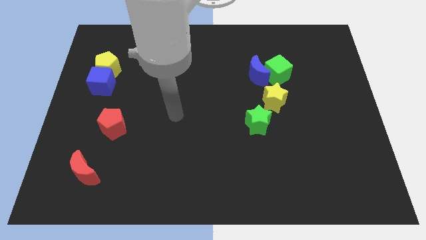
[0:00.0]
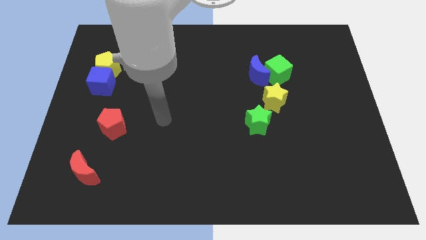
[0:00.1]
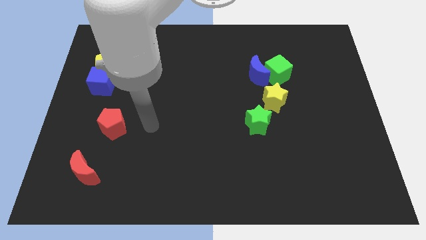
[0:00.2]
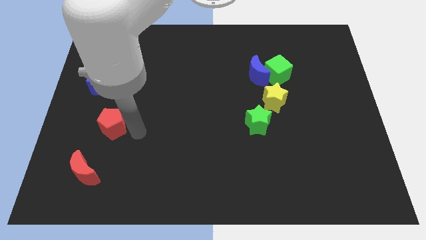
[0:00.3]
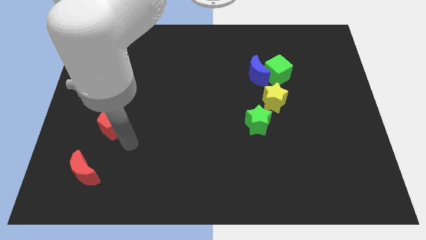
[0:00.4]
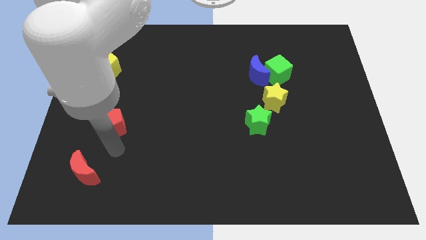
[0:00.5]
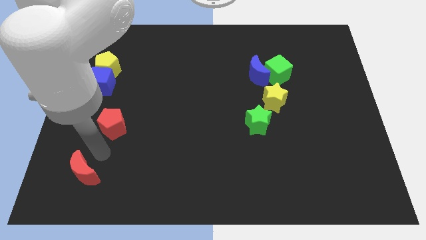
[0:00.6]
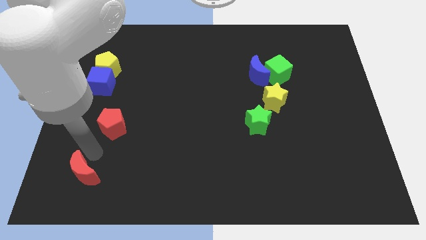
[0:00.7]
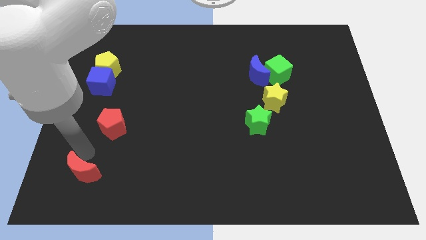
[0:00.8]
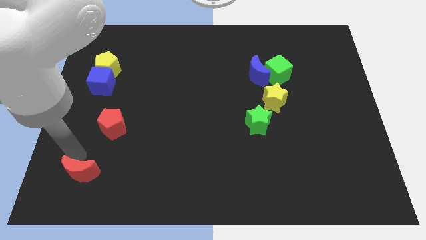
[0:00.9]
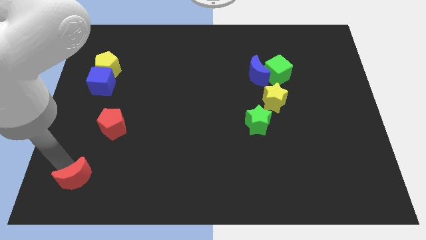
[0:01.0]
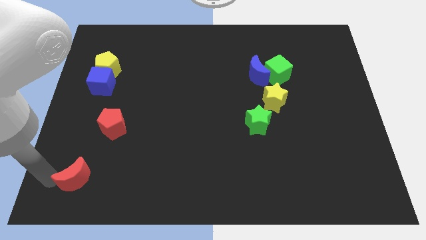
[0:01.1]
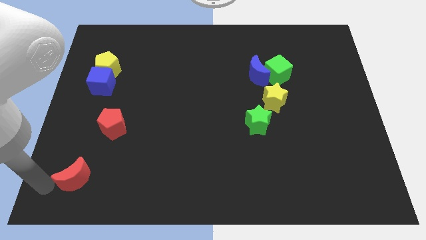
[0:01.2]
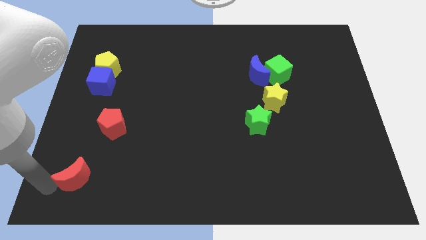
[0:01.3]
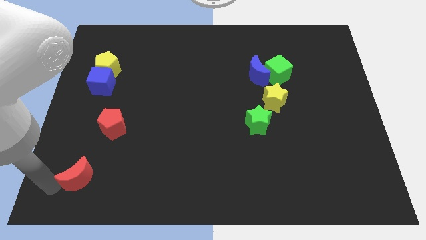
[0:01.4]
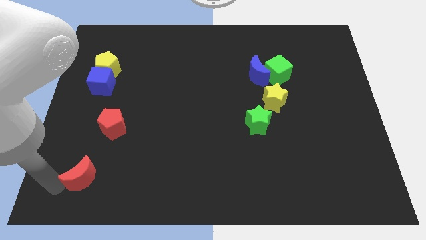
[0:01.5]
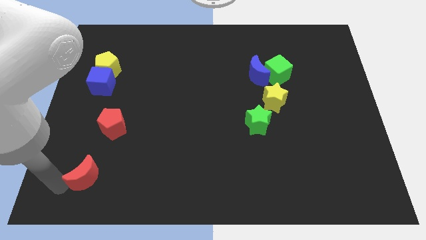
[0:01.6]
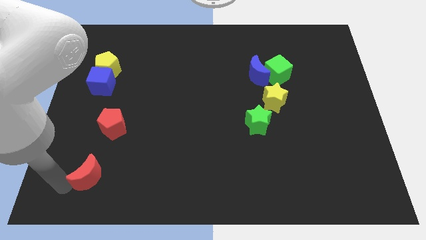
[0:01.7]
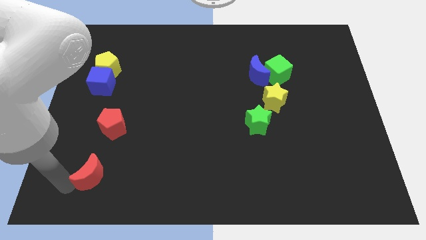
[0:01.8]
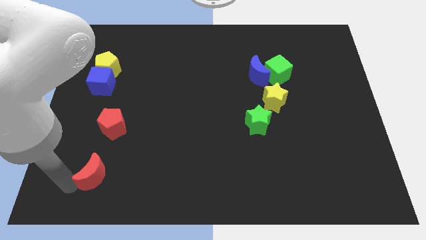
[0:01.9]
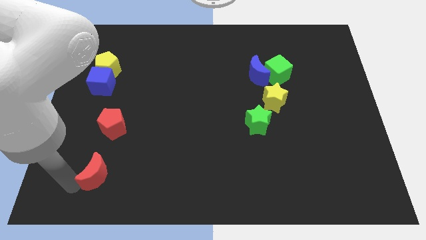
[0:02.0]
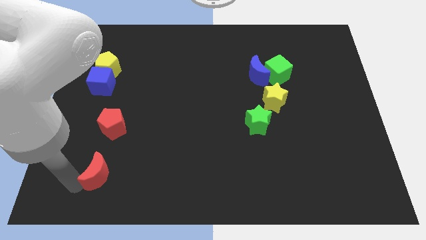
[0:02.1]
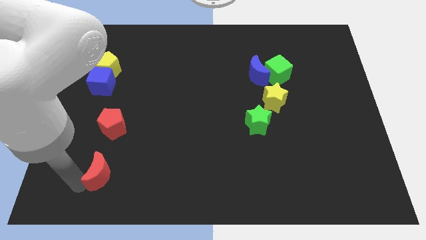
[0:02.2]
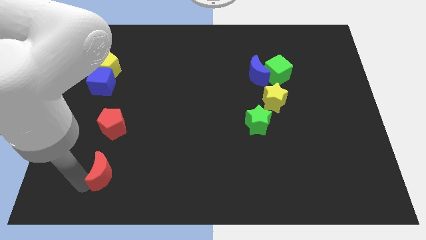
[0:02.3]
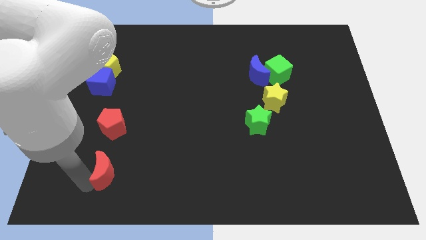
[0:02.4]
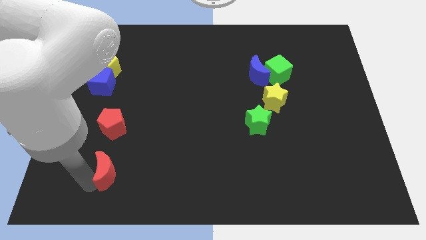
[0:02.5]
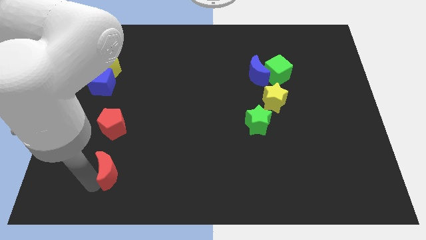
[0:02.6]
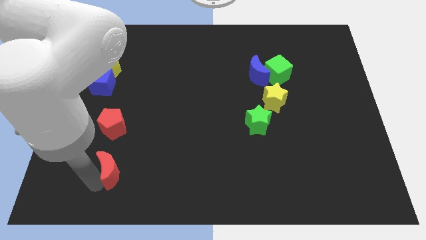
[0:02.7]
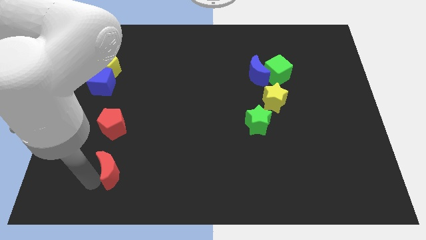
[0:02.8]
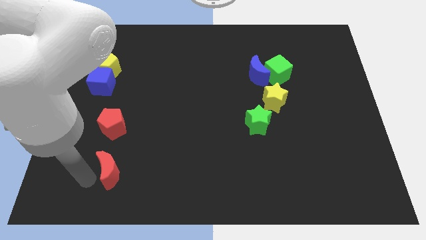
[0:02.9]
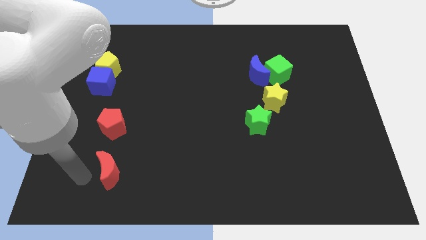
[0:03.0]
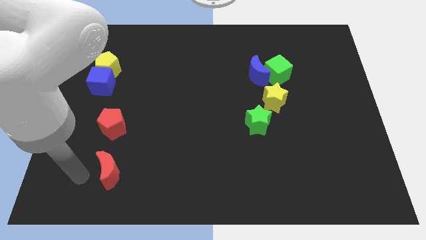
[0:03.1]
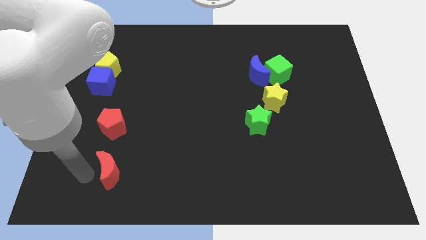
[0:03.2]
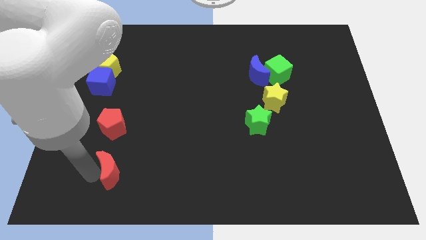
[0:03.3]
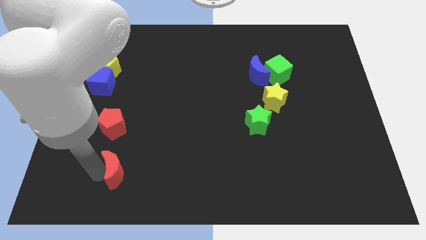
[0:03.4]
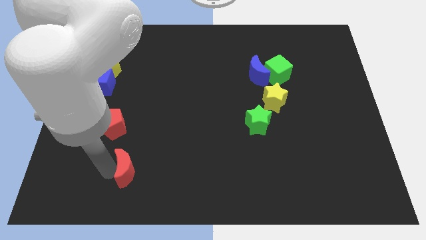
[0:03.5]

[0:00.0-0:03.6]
move the red moon to the right slightly

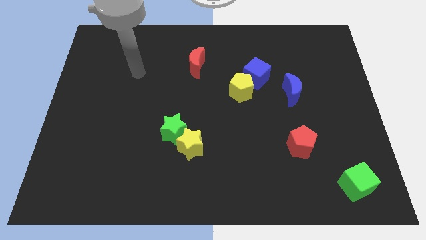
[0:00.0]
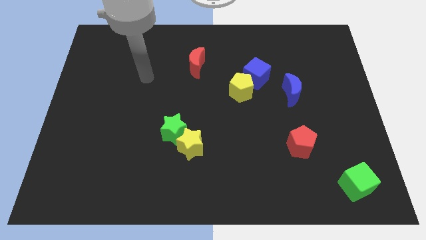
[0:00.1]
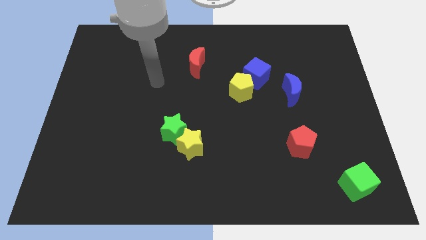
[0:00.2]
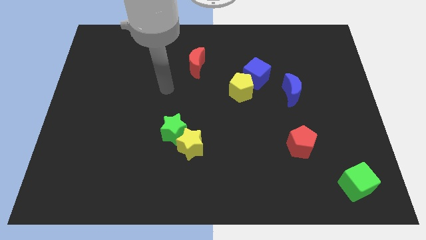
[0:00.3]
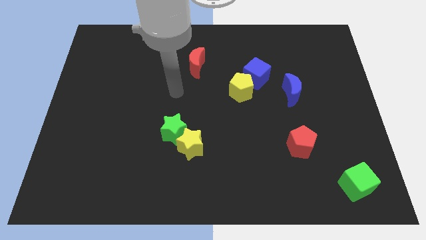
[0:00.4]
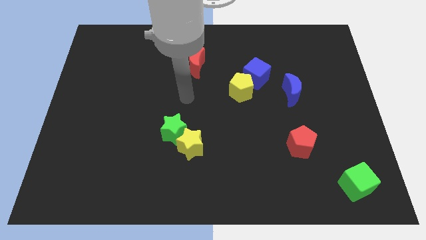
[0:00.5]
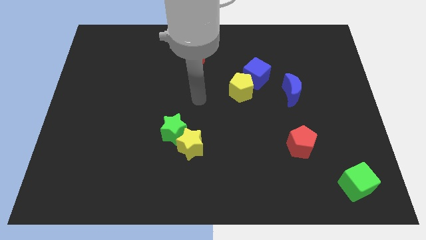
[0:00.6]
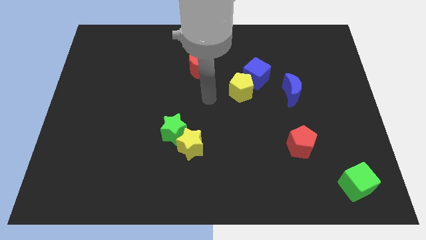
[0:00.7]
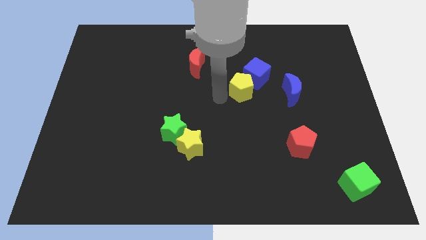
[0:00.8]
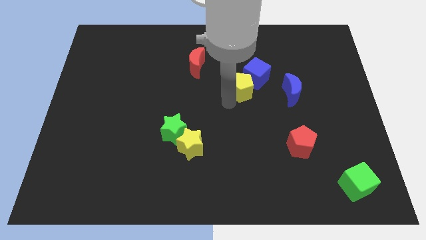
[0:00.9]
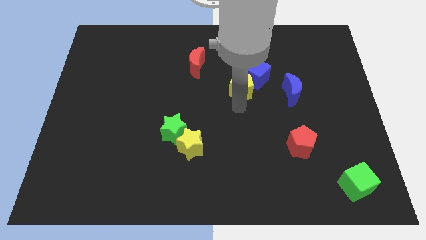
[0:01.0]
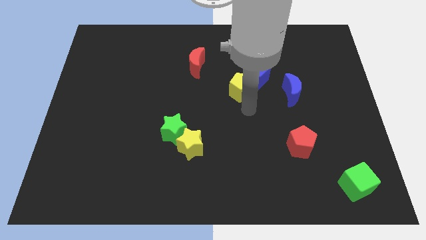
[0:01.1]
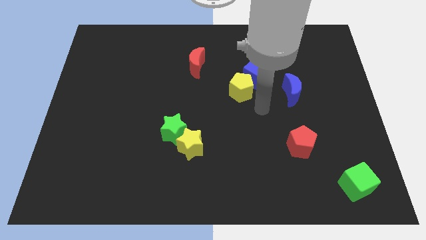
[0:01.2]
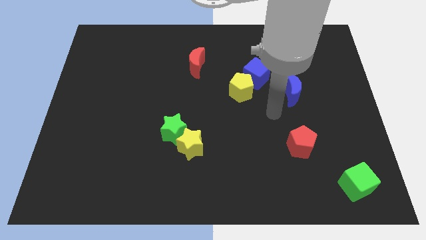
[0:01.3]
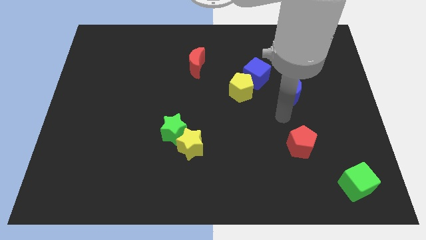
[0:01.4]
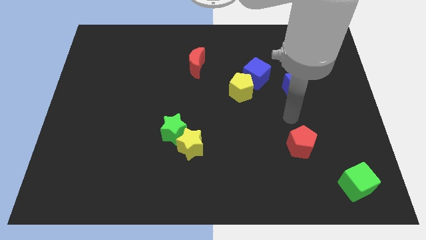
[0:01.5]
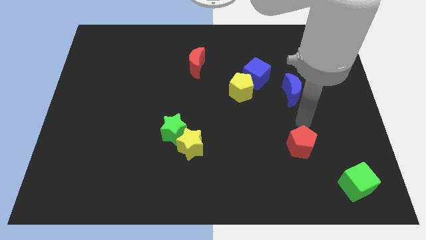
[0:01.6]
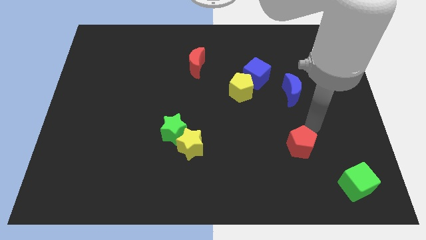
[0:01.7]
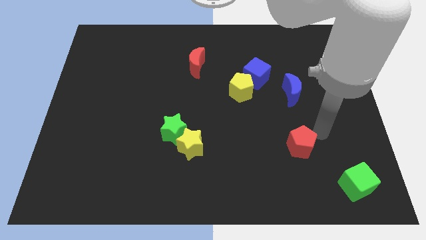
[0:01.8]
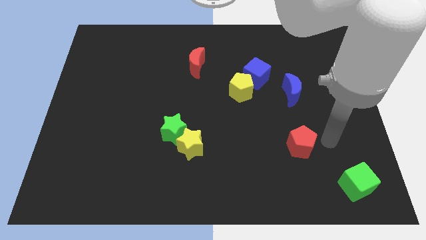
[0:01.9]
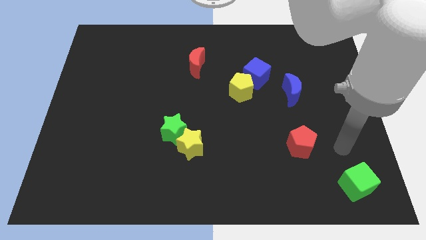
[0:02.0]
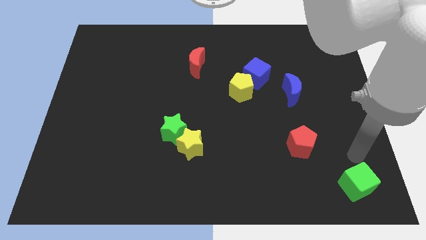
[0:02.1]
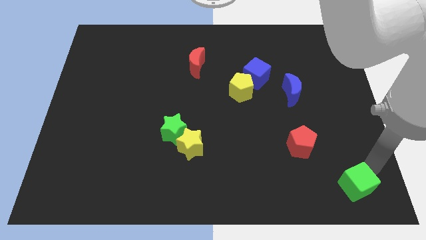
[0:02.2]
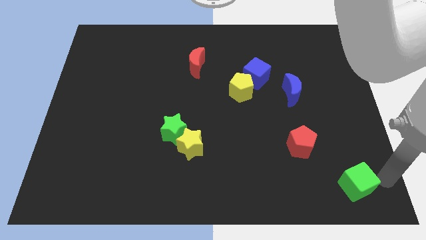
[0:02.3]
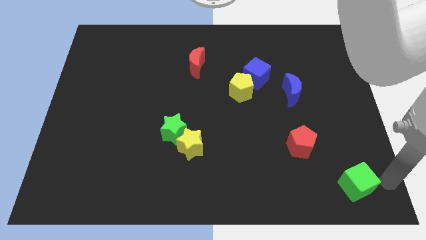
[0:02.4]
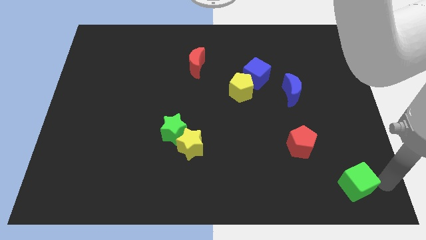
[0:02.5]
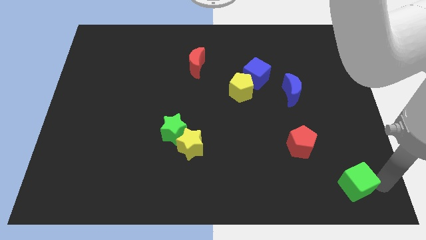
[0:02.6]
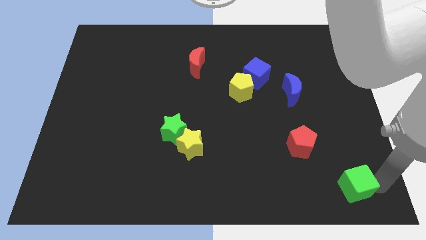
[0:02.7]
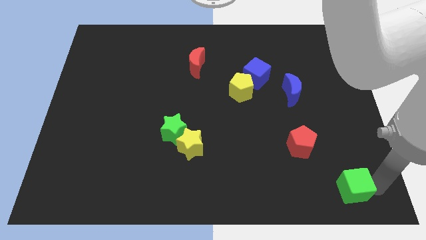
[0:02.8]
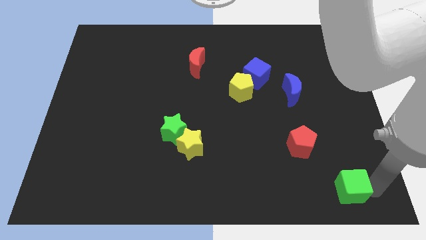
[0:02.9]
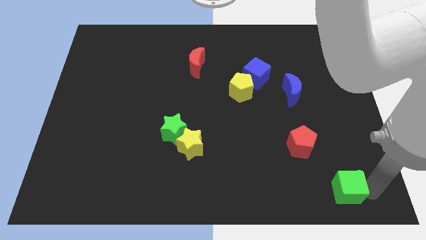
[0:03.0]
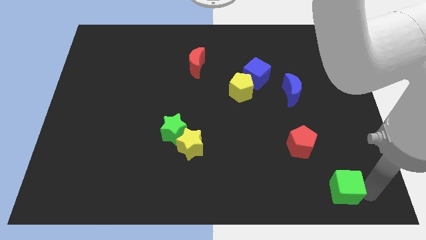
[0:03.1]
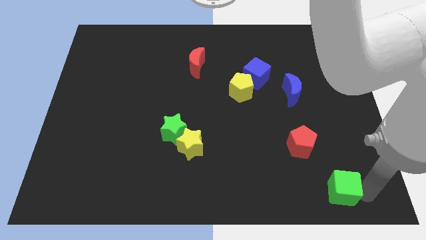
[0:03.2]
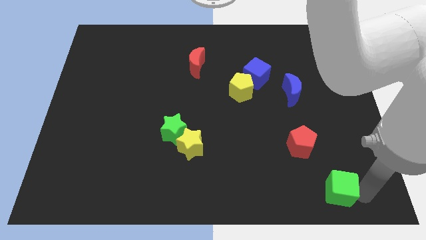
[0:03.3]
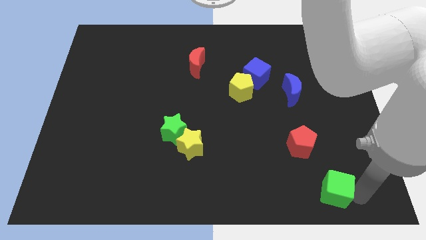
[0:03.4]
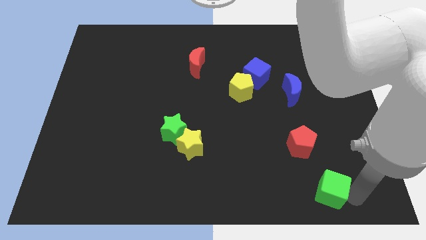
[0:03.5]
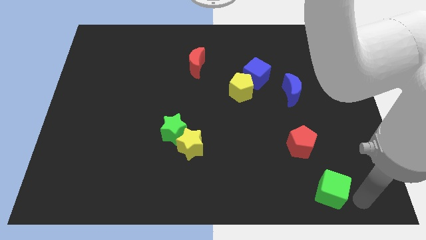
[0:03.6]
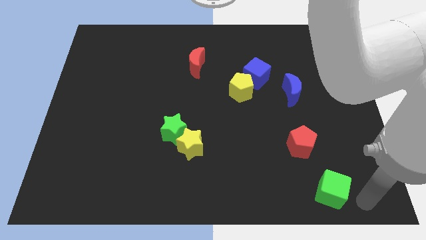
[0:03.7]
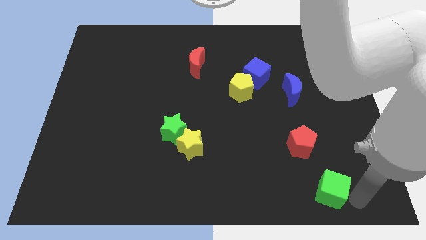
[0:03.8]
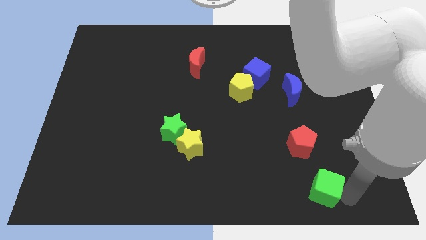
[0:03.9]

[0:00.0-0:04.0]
slide the green cube to the left a little bit

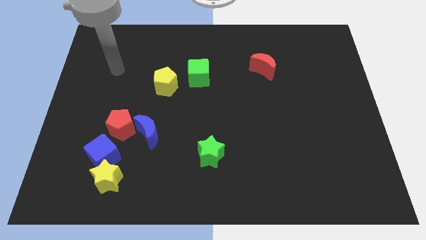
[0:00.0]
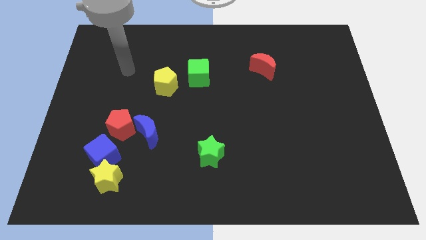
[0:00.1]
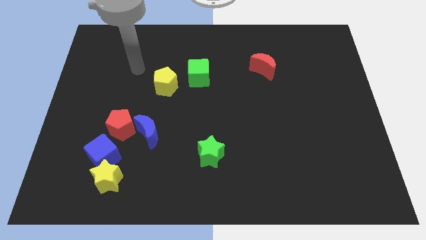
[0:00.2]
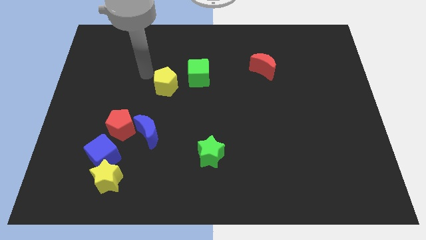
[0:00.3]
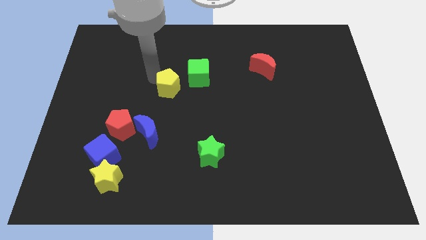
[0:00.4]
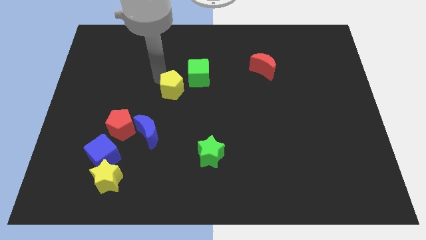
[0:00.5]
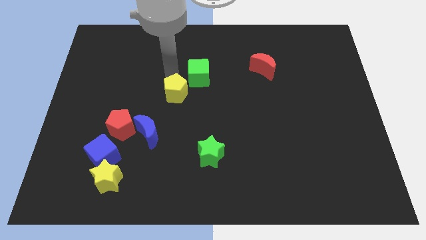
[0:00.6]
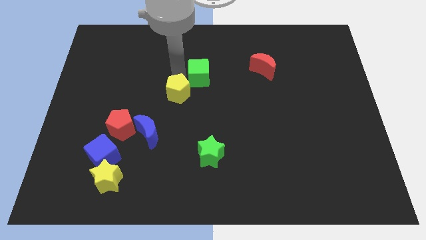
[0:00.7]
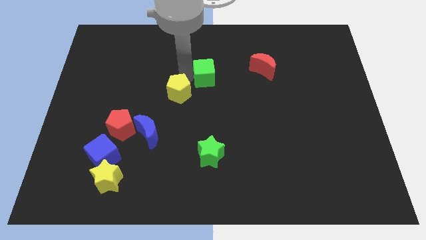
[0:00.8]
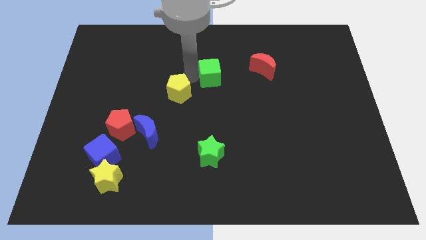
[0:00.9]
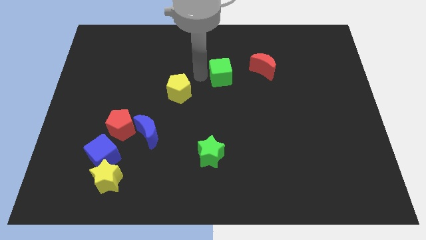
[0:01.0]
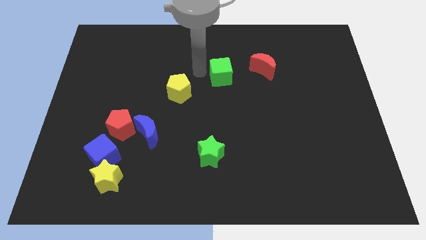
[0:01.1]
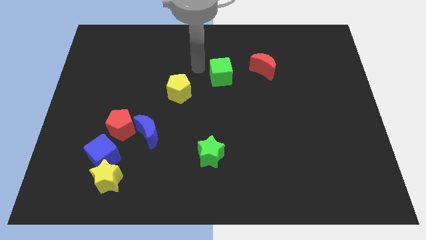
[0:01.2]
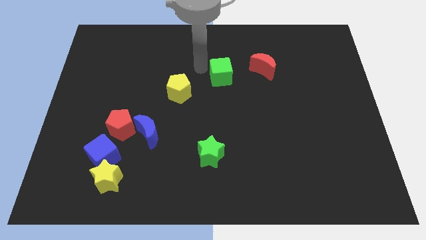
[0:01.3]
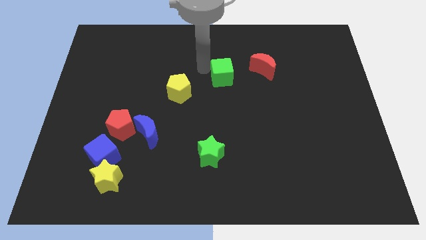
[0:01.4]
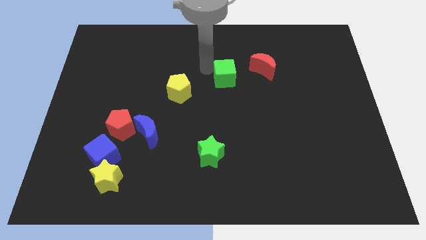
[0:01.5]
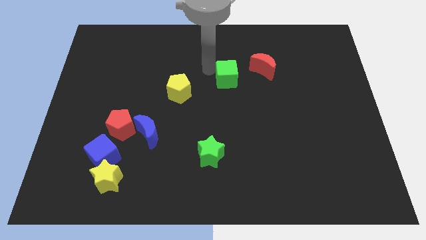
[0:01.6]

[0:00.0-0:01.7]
slightly move the green cube to the right
